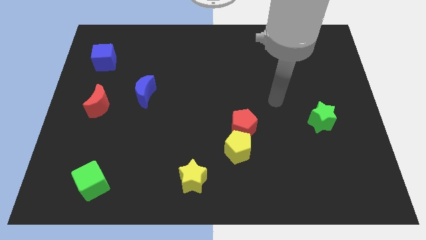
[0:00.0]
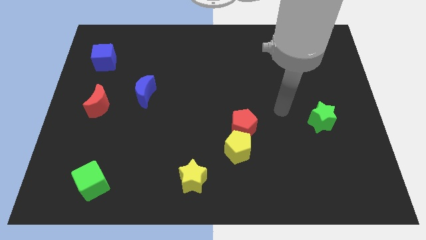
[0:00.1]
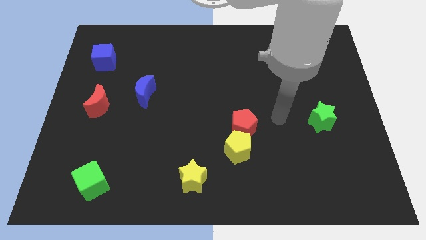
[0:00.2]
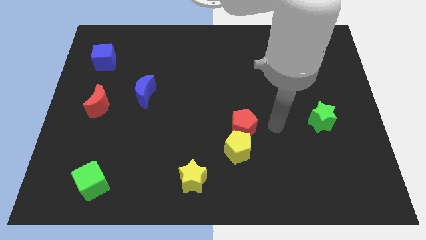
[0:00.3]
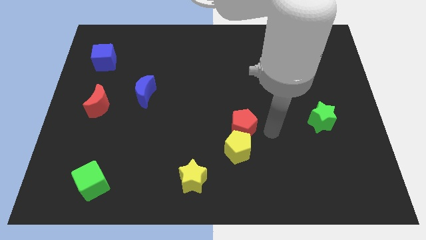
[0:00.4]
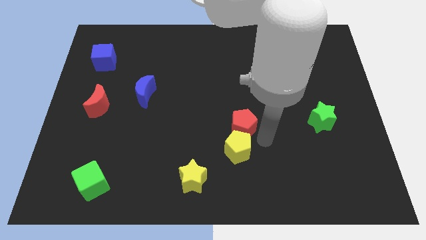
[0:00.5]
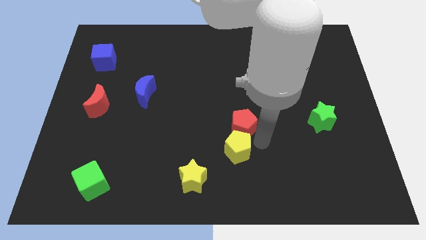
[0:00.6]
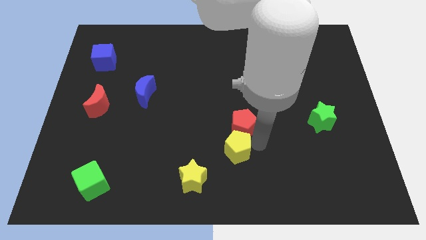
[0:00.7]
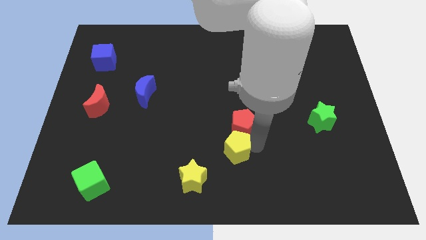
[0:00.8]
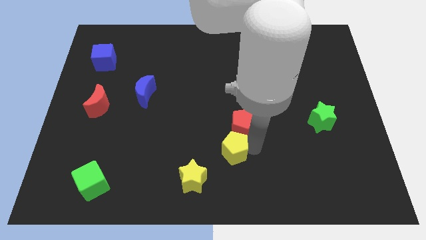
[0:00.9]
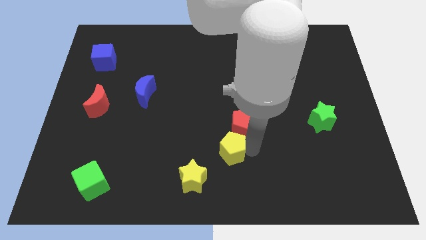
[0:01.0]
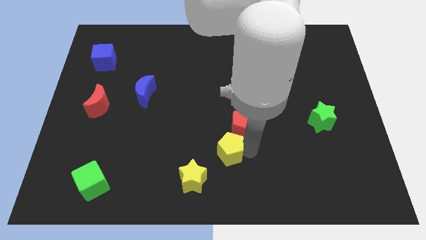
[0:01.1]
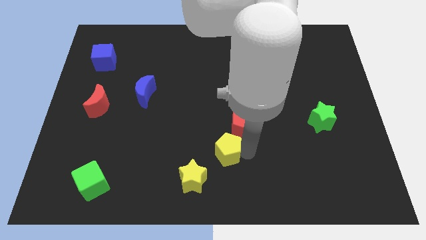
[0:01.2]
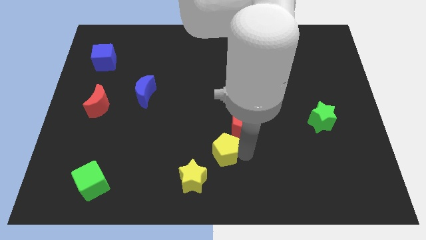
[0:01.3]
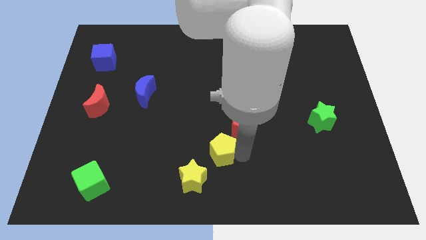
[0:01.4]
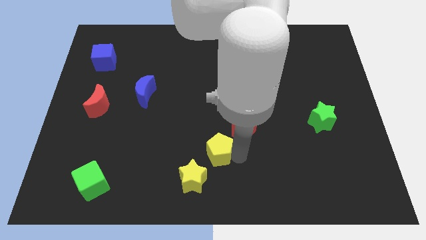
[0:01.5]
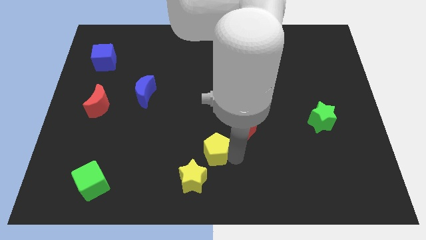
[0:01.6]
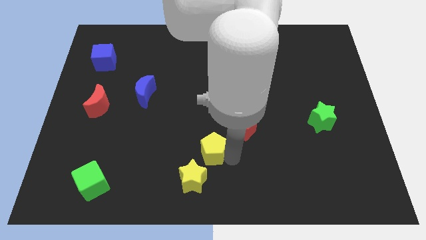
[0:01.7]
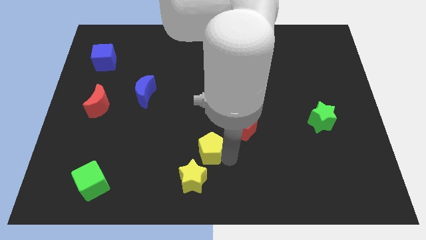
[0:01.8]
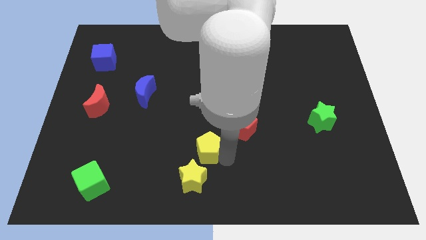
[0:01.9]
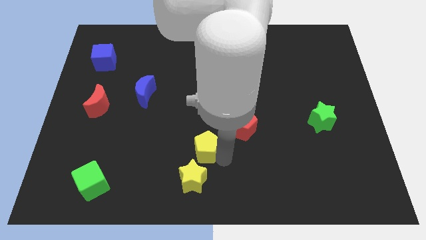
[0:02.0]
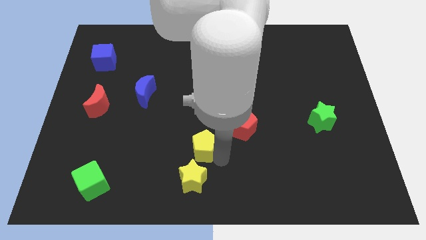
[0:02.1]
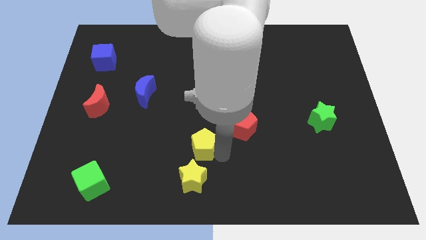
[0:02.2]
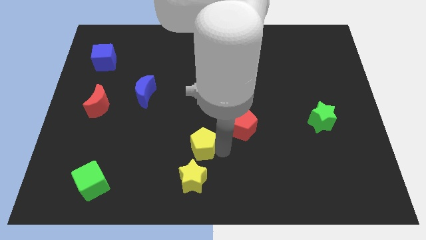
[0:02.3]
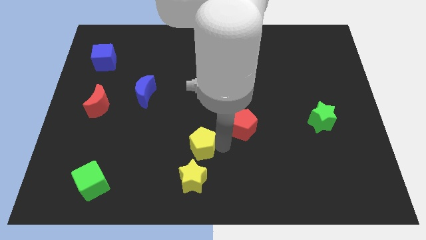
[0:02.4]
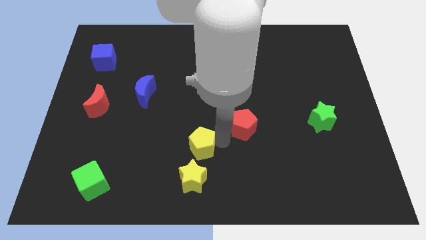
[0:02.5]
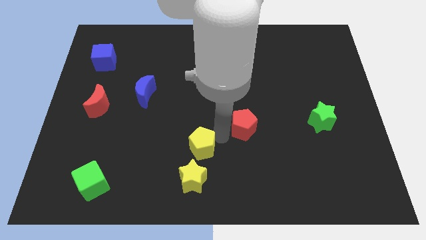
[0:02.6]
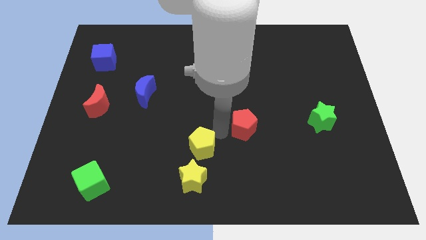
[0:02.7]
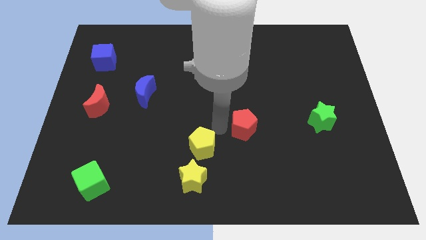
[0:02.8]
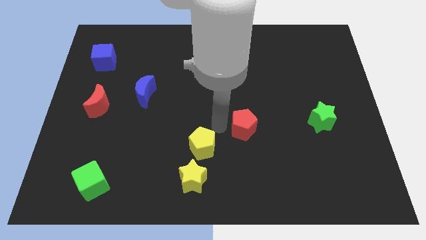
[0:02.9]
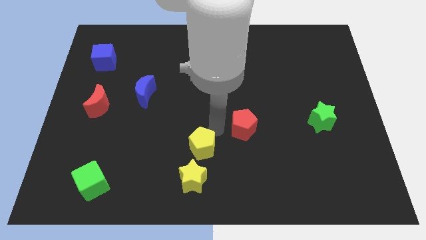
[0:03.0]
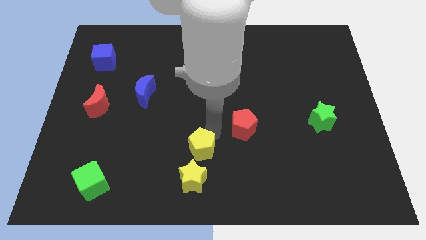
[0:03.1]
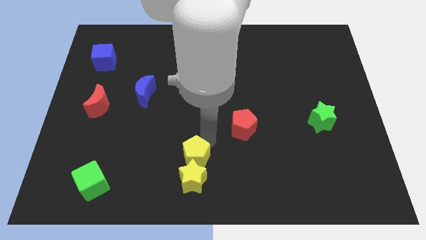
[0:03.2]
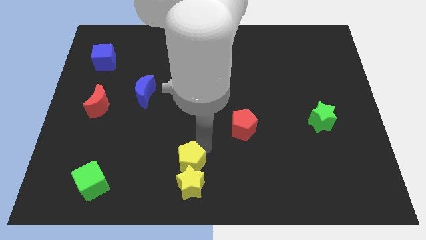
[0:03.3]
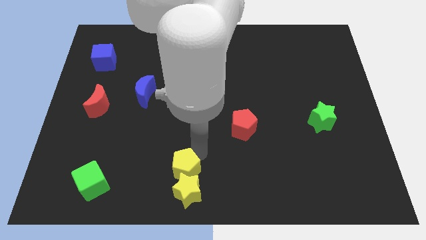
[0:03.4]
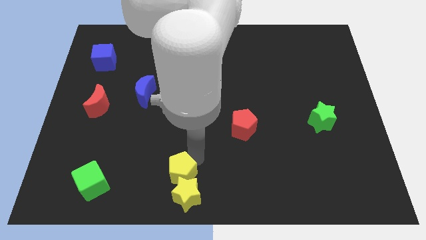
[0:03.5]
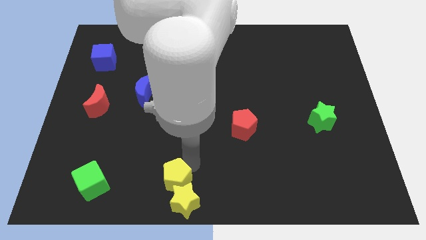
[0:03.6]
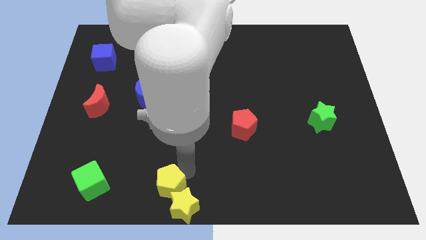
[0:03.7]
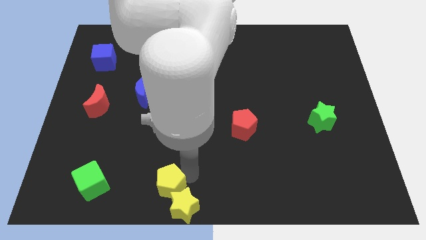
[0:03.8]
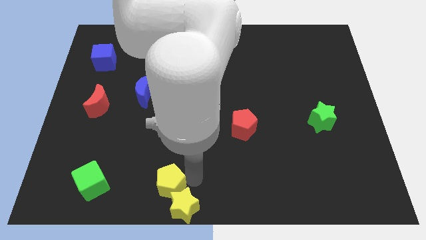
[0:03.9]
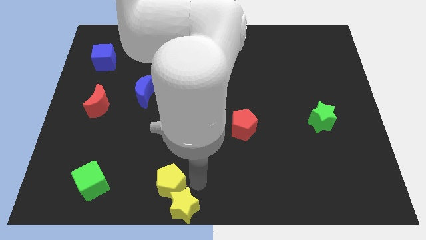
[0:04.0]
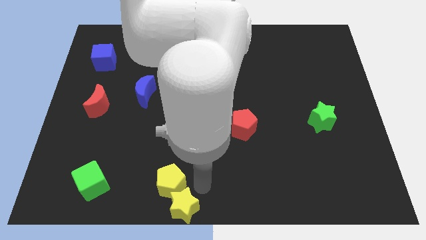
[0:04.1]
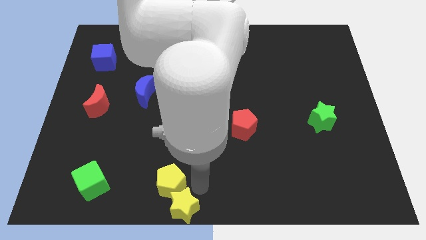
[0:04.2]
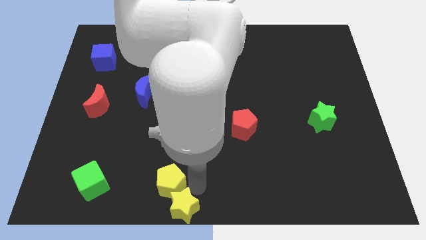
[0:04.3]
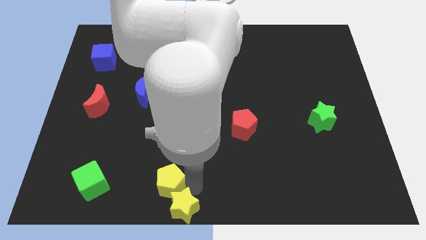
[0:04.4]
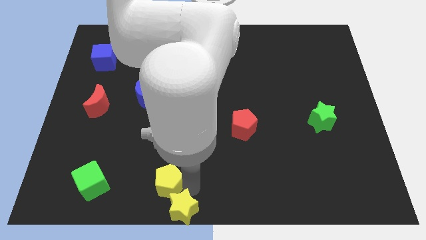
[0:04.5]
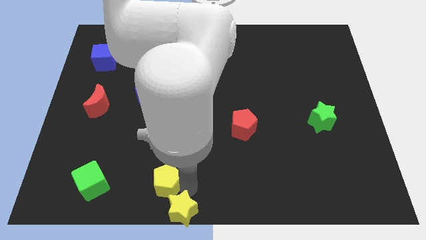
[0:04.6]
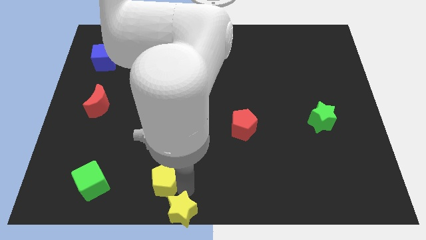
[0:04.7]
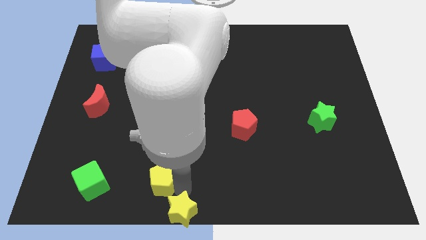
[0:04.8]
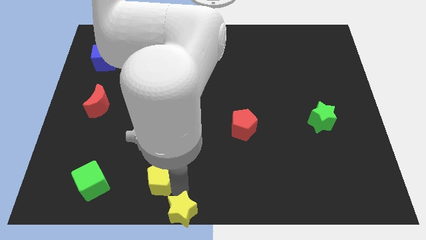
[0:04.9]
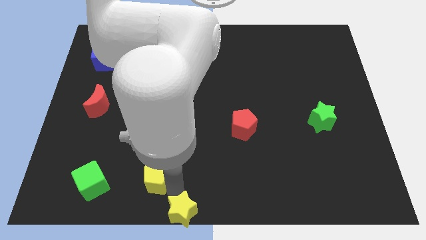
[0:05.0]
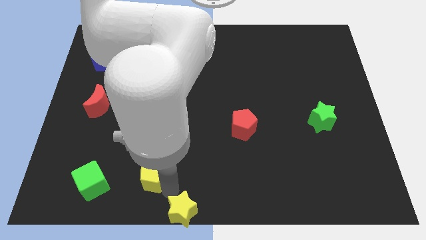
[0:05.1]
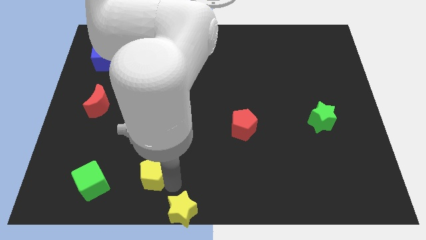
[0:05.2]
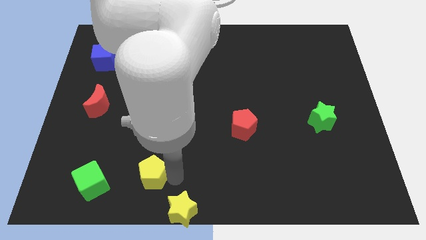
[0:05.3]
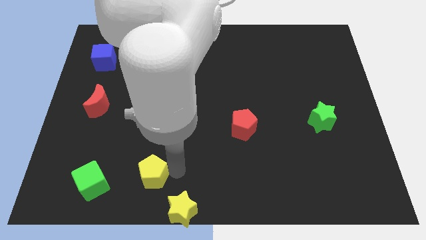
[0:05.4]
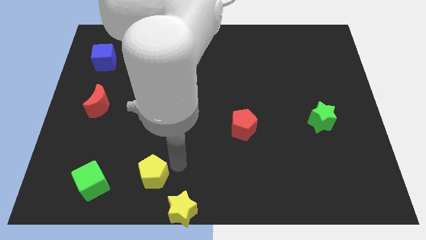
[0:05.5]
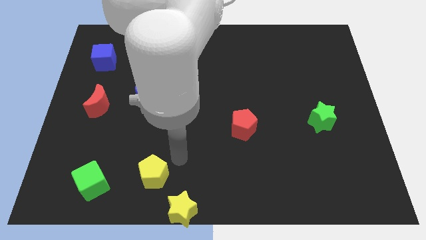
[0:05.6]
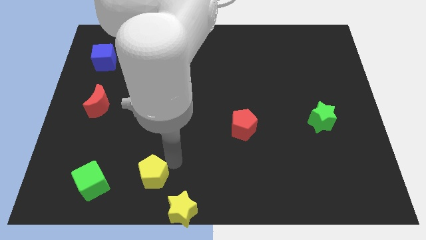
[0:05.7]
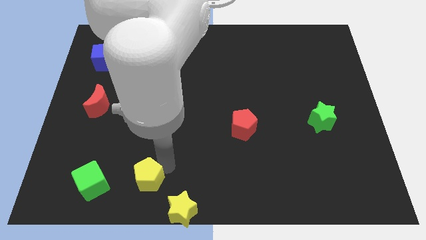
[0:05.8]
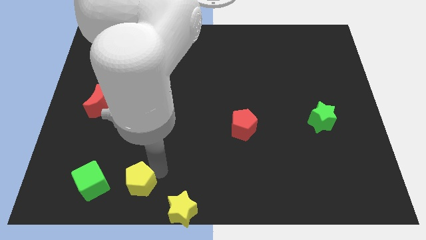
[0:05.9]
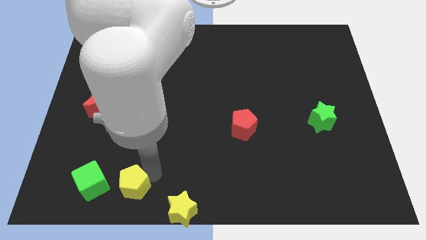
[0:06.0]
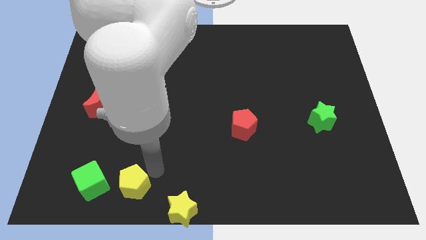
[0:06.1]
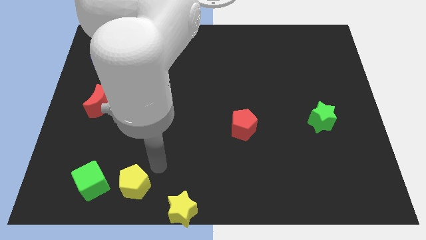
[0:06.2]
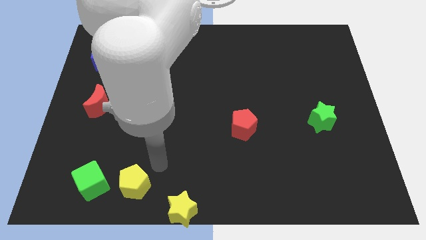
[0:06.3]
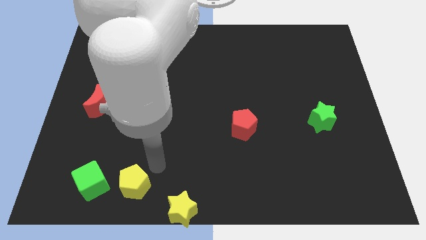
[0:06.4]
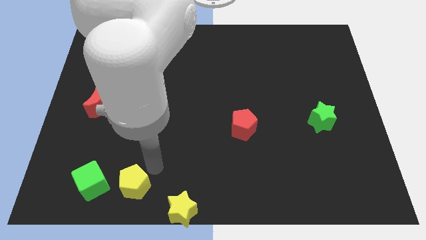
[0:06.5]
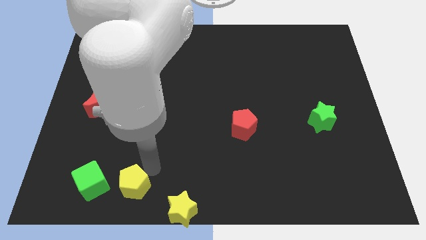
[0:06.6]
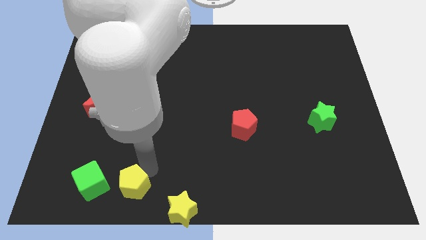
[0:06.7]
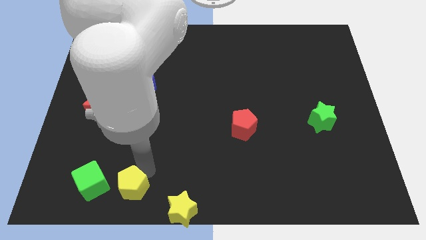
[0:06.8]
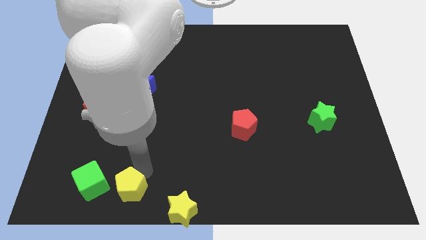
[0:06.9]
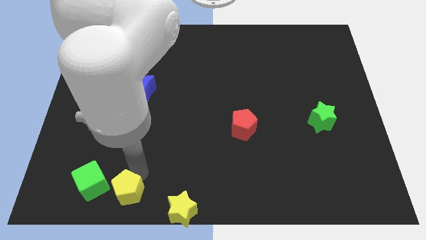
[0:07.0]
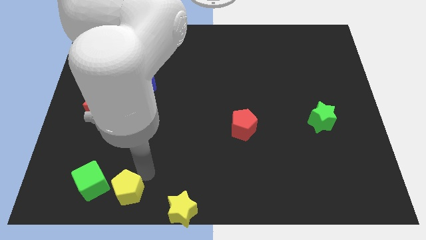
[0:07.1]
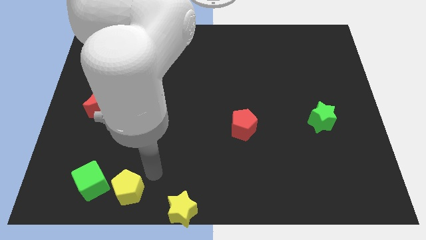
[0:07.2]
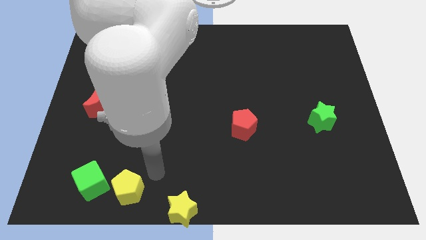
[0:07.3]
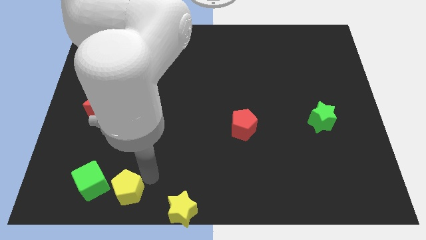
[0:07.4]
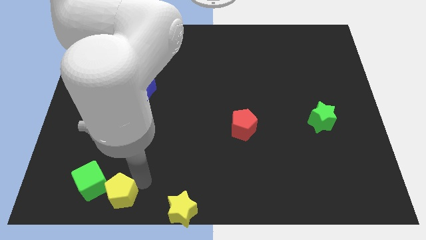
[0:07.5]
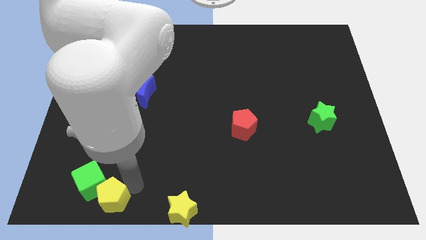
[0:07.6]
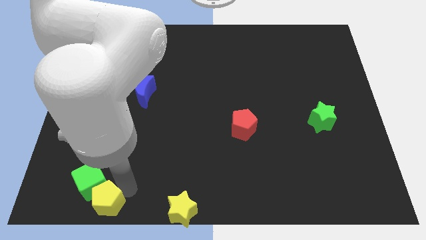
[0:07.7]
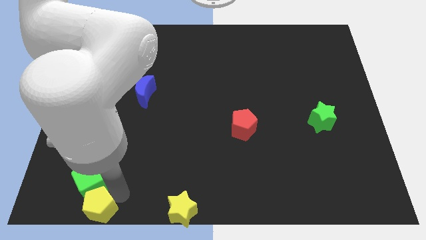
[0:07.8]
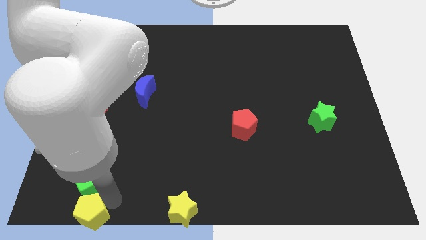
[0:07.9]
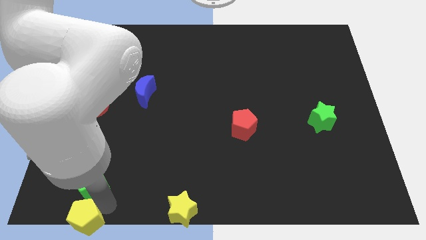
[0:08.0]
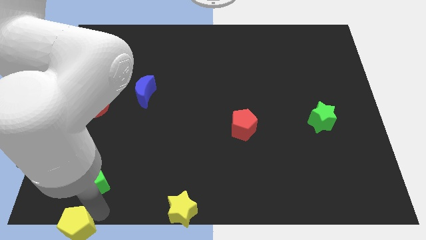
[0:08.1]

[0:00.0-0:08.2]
move the yellow pentagon to the bottom left
